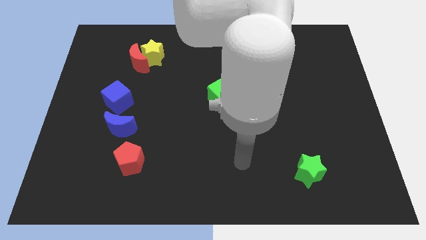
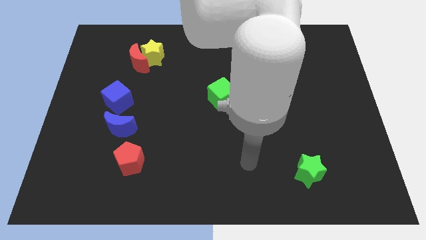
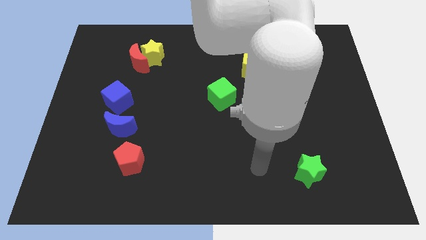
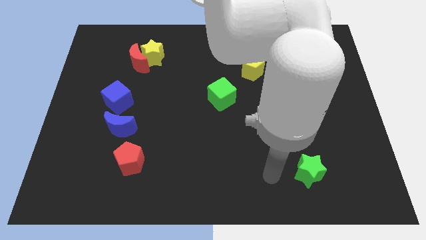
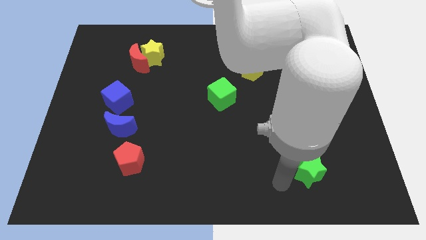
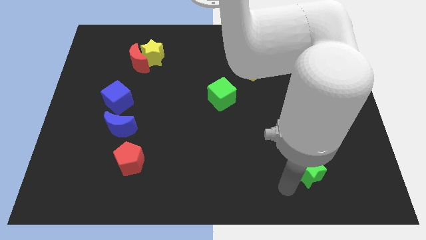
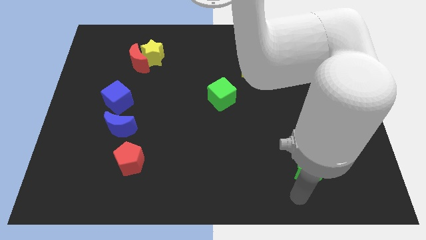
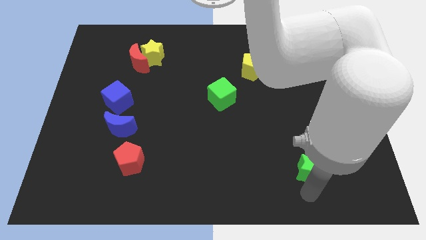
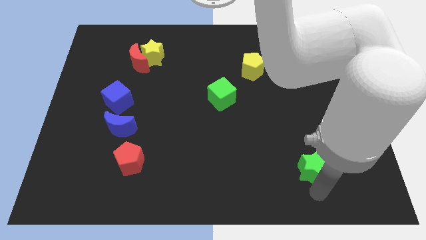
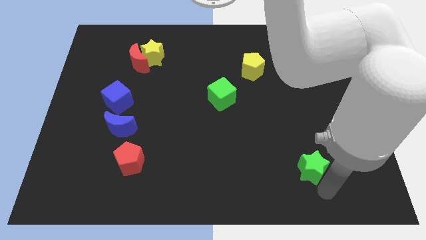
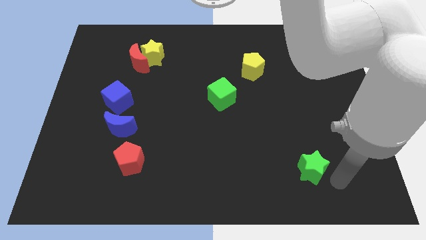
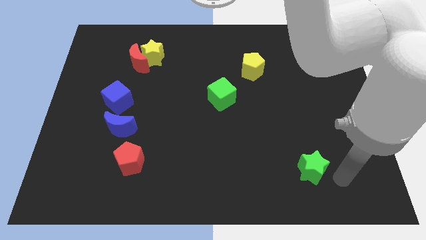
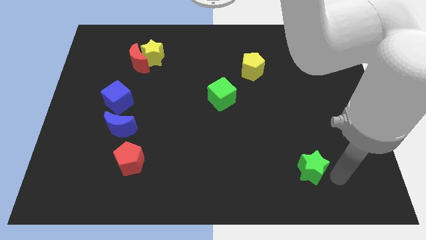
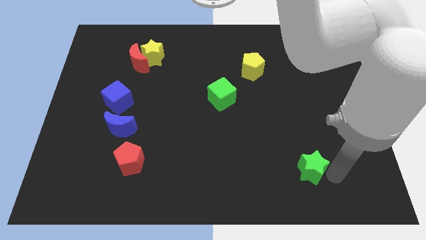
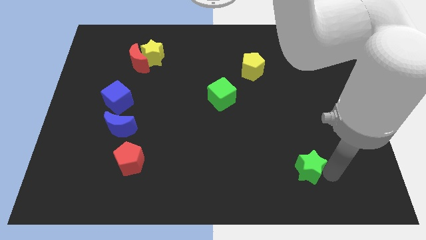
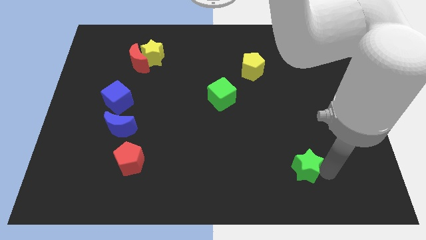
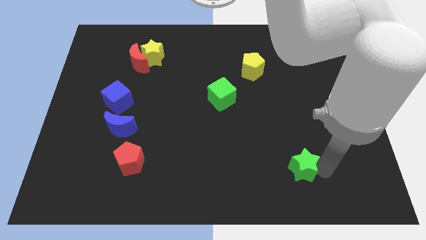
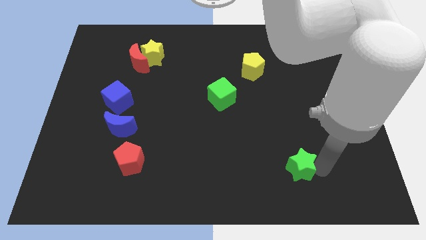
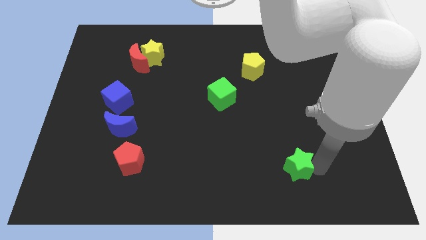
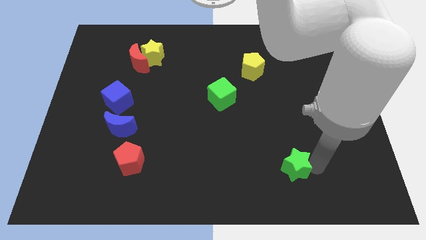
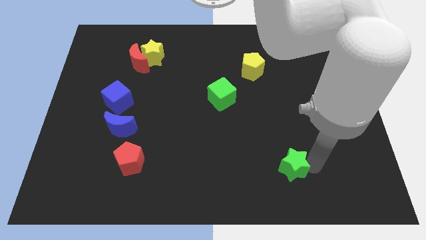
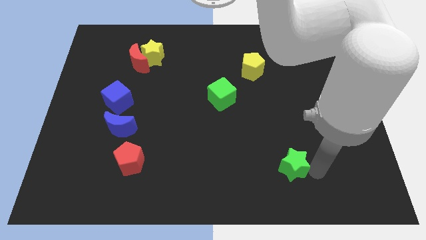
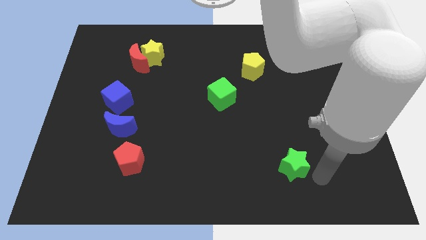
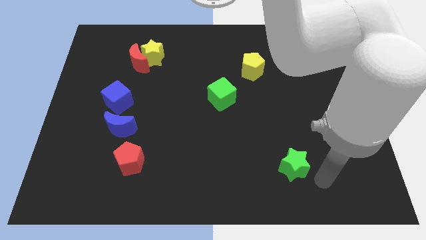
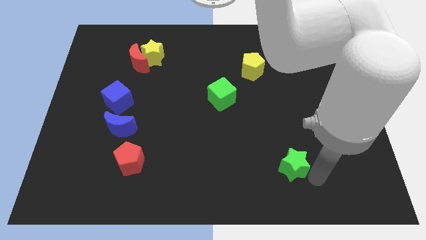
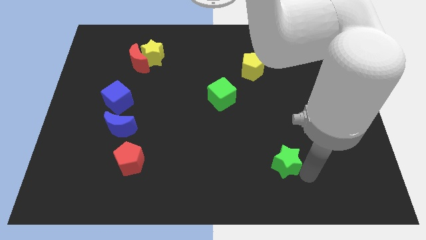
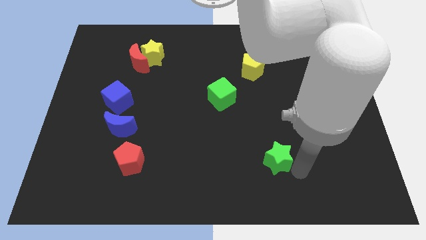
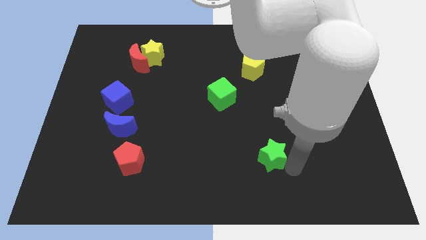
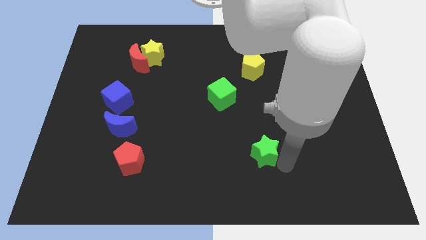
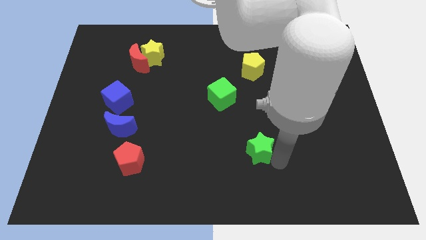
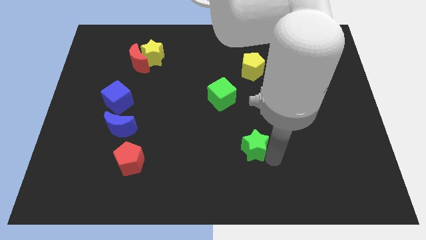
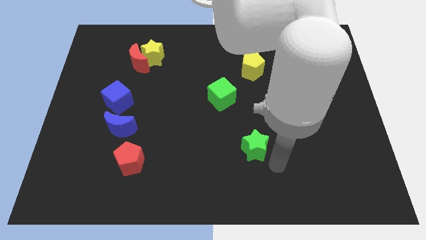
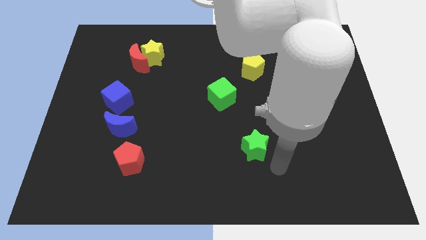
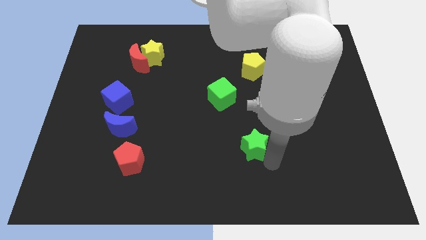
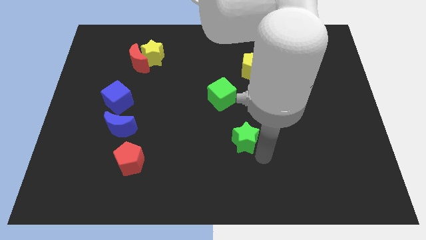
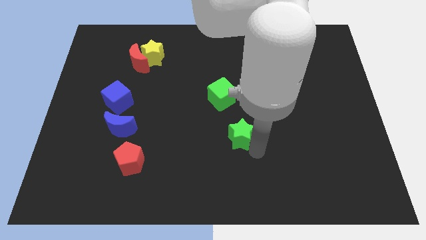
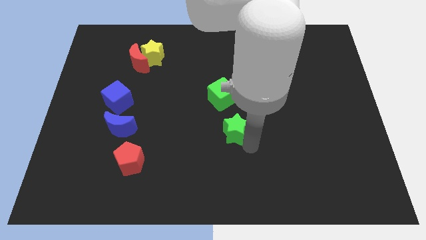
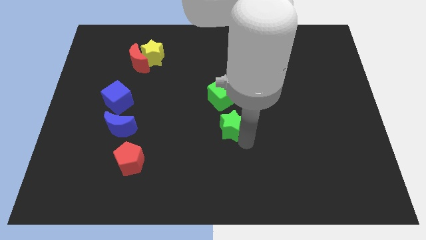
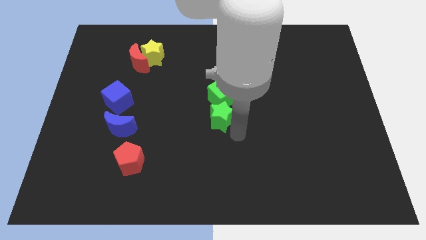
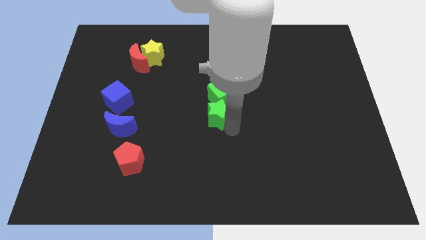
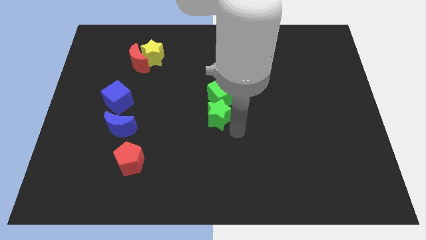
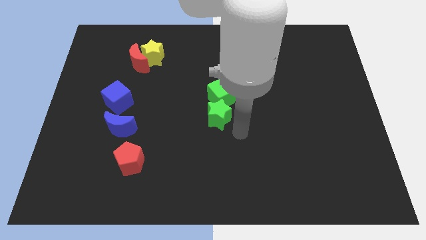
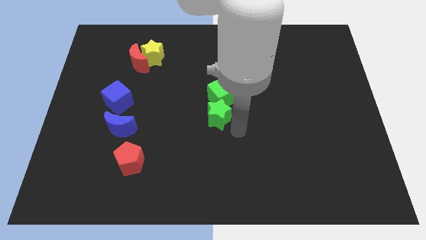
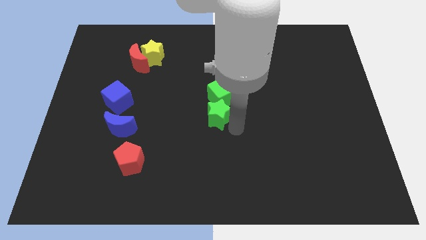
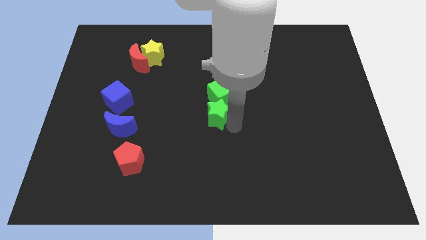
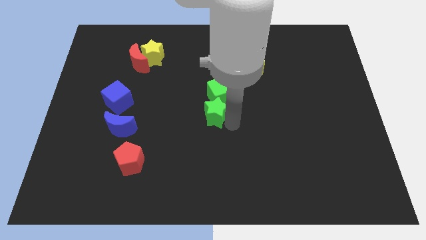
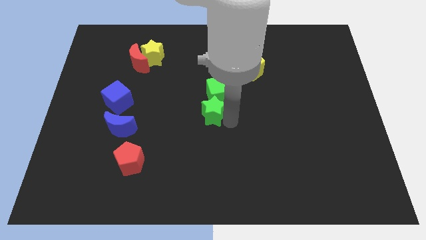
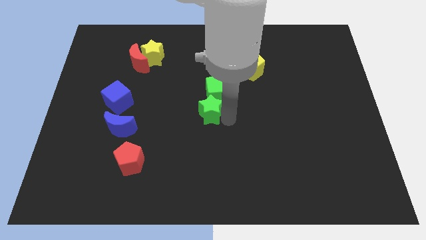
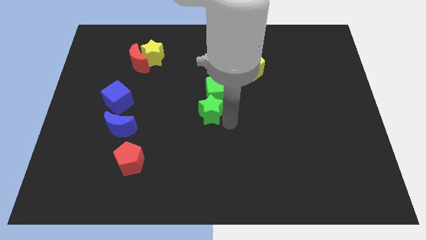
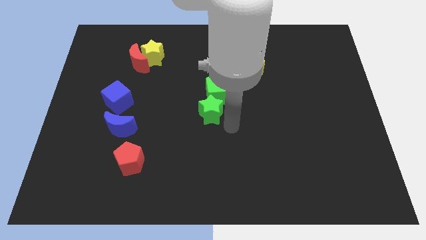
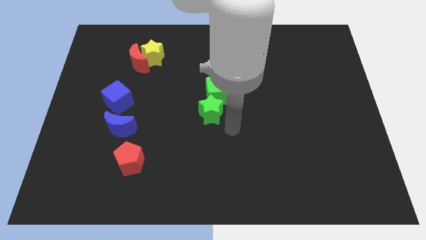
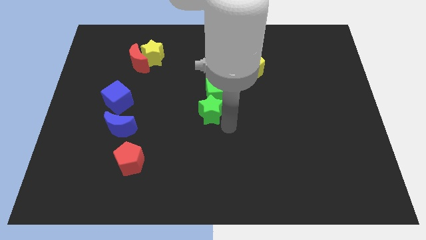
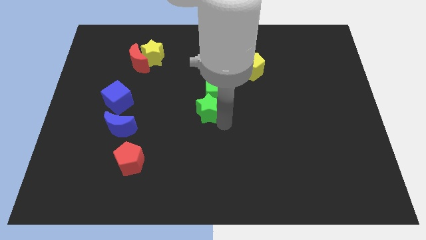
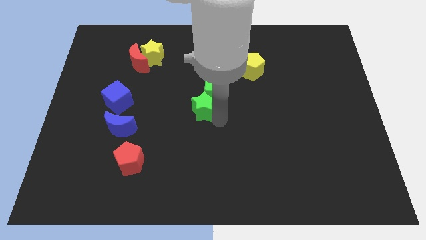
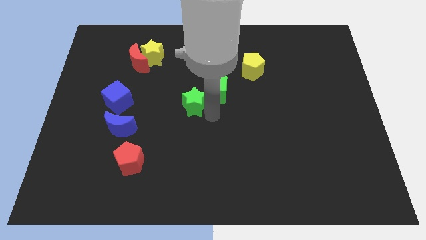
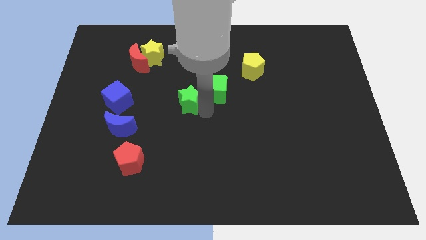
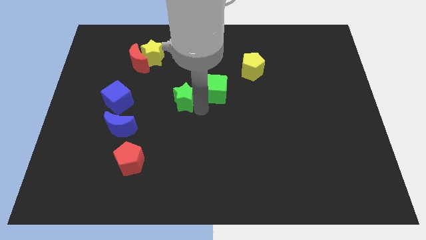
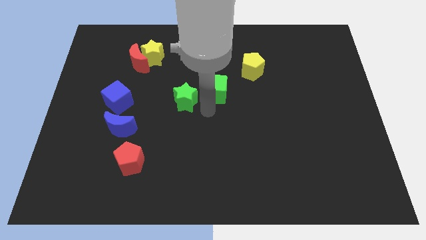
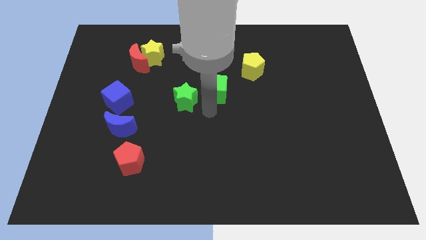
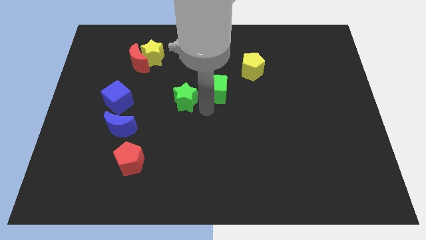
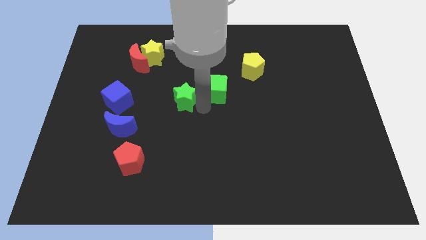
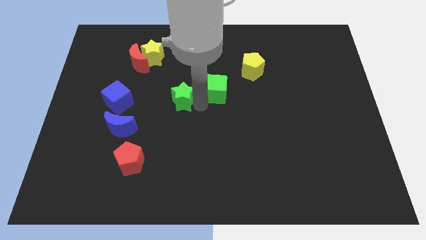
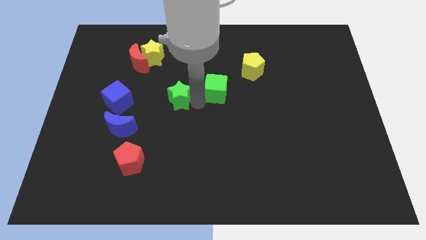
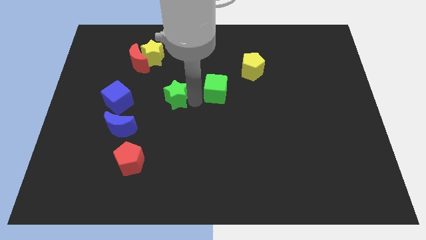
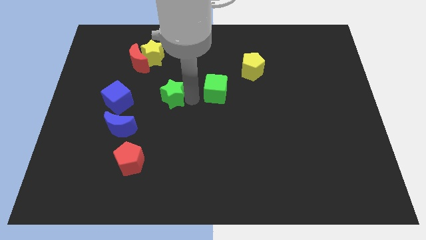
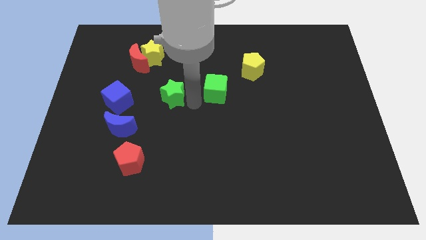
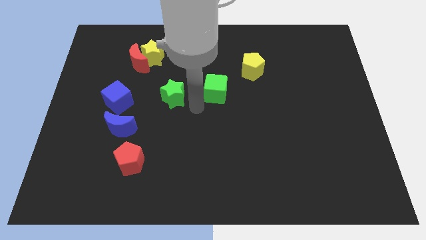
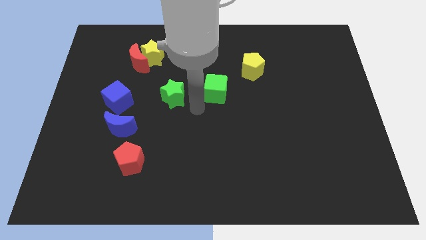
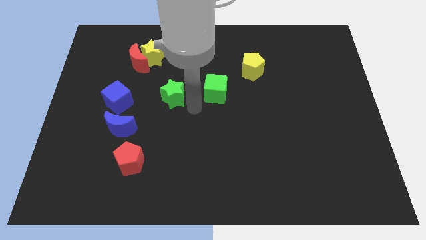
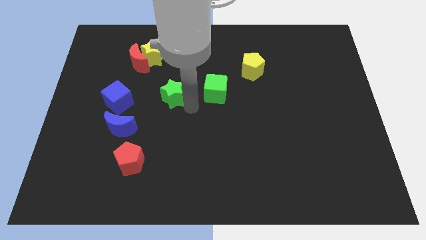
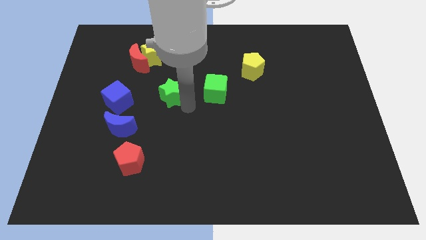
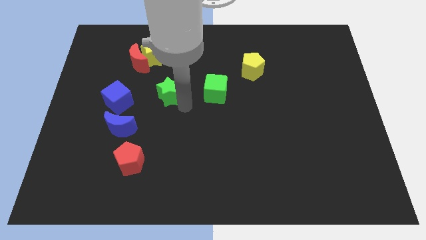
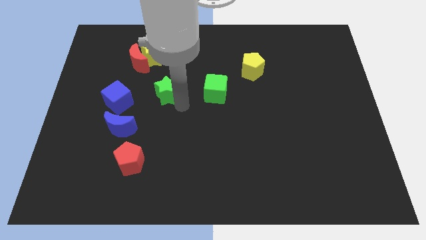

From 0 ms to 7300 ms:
slide the green star to the bottom of the yellow star
